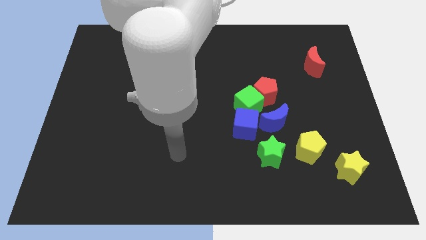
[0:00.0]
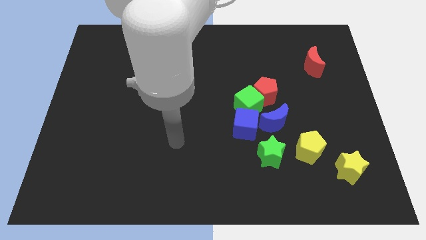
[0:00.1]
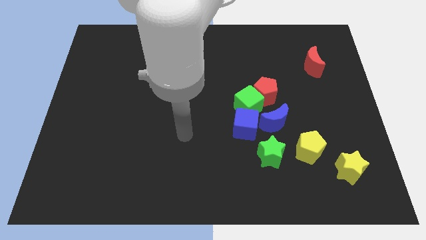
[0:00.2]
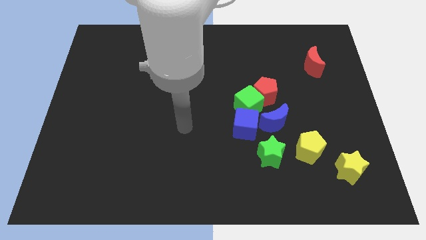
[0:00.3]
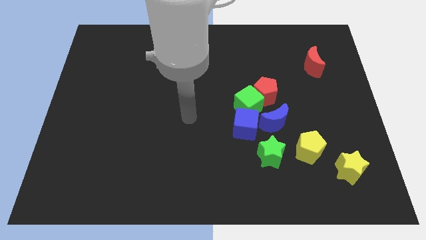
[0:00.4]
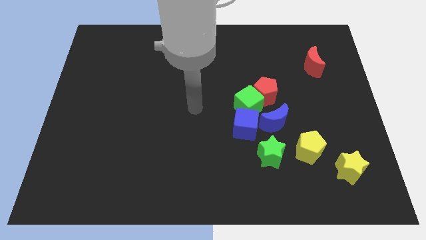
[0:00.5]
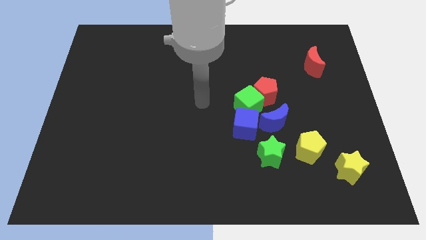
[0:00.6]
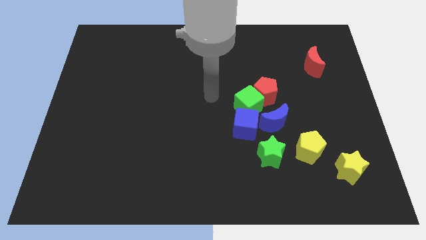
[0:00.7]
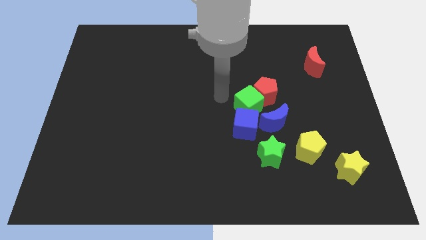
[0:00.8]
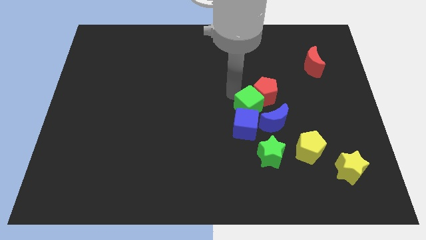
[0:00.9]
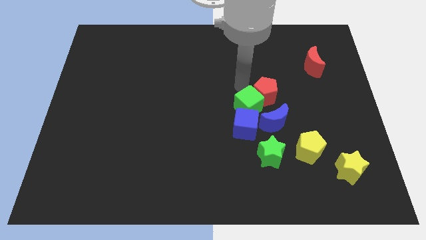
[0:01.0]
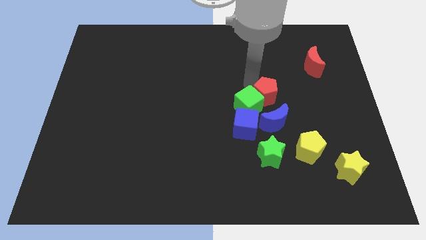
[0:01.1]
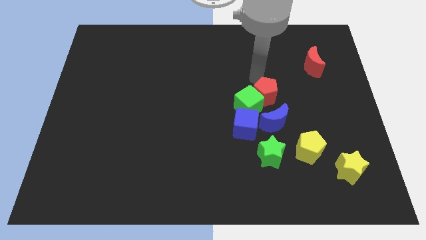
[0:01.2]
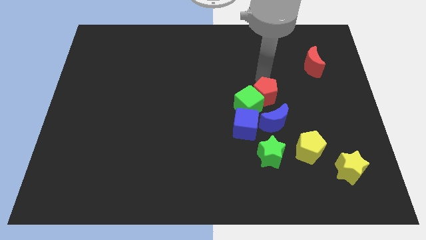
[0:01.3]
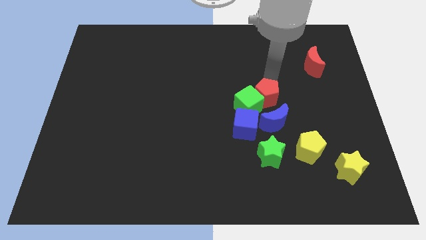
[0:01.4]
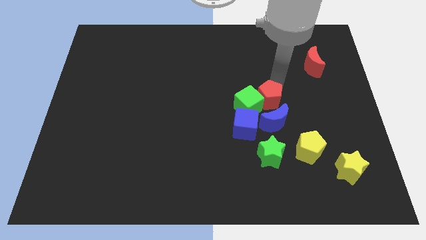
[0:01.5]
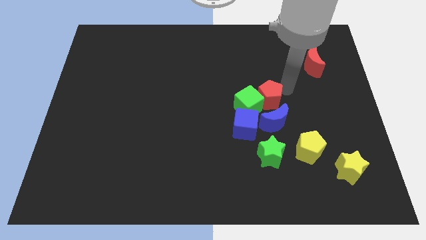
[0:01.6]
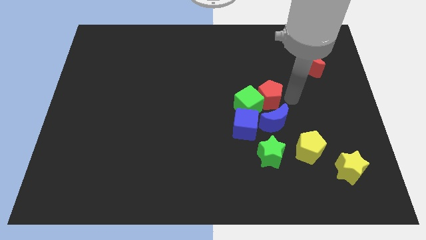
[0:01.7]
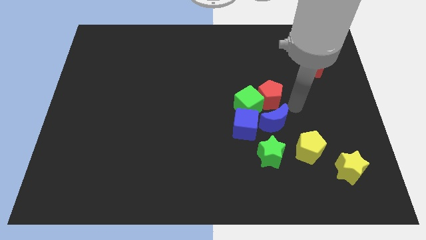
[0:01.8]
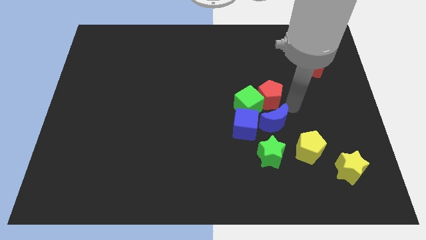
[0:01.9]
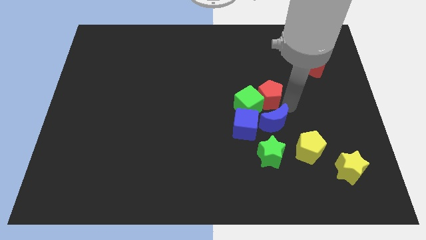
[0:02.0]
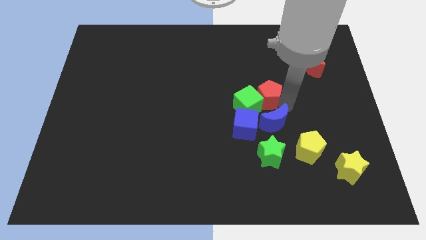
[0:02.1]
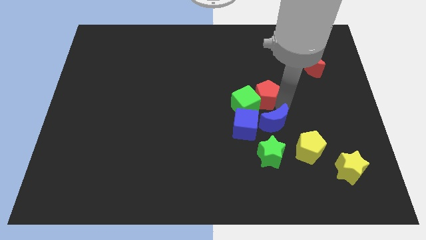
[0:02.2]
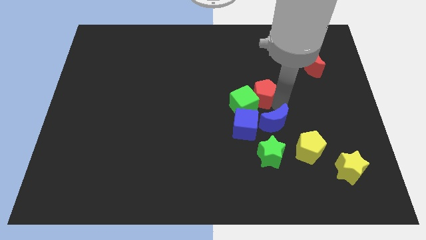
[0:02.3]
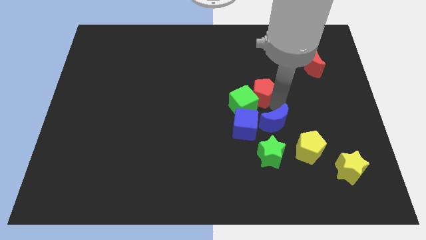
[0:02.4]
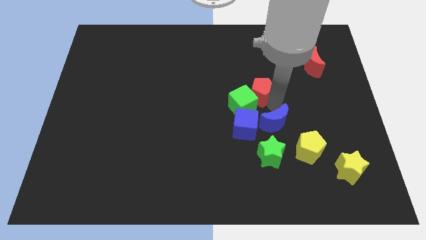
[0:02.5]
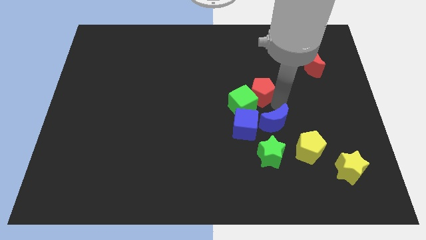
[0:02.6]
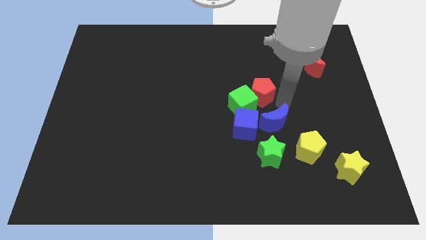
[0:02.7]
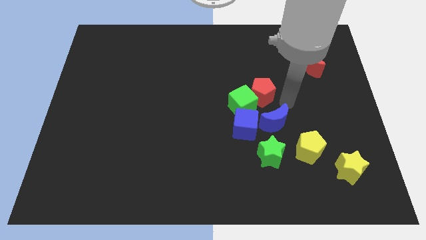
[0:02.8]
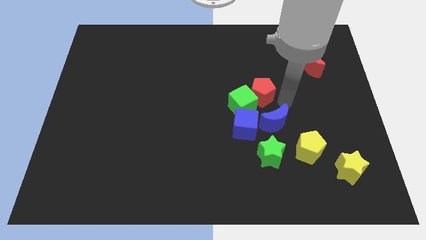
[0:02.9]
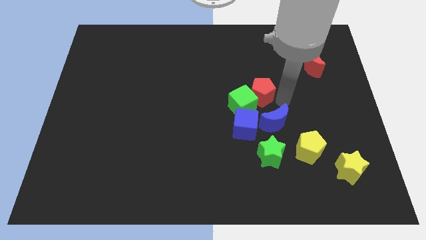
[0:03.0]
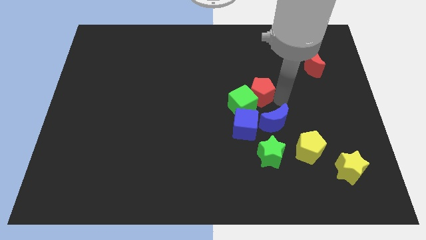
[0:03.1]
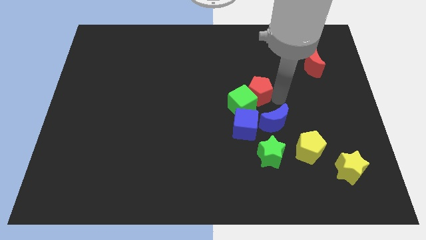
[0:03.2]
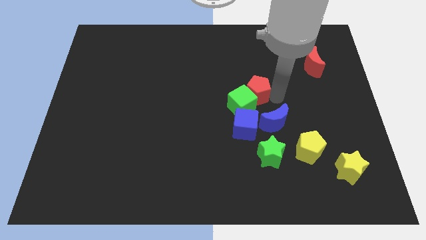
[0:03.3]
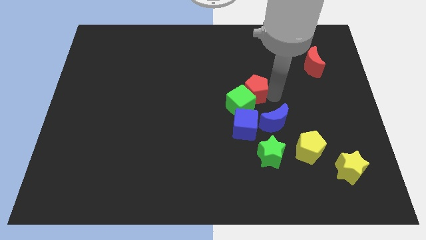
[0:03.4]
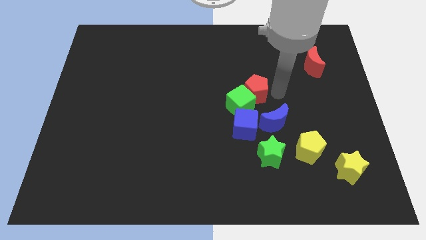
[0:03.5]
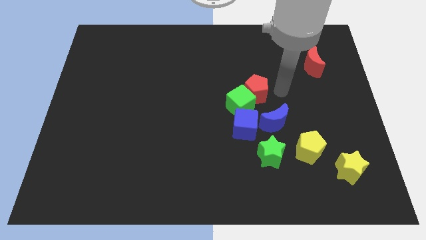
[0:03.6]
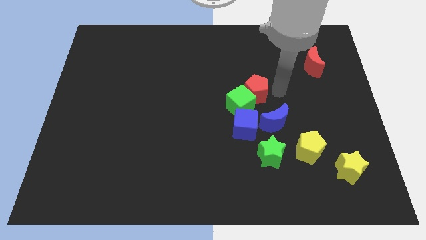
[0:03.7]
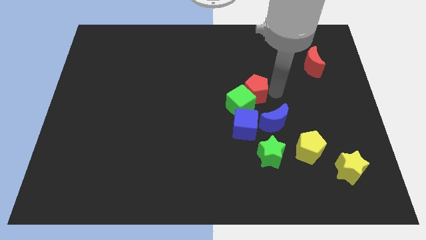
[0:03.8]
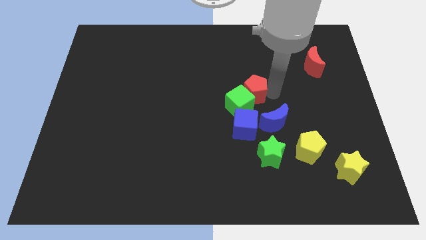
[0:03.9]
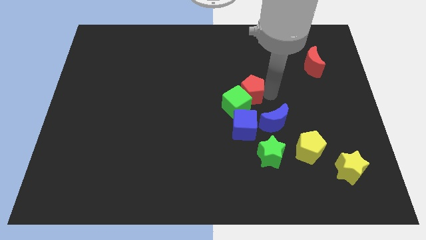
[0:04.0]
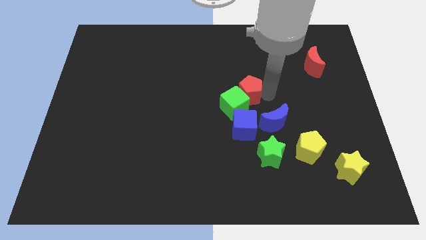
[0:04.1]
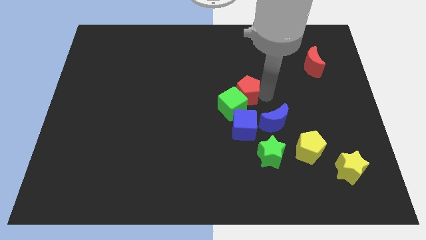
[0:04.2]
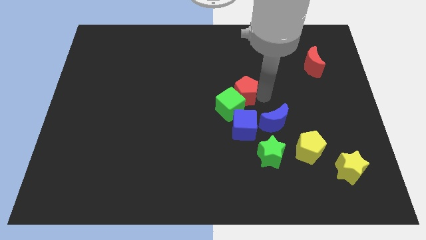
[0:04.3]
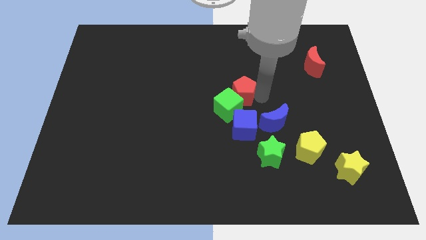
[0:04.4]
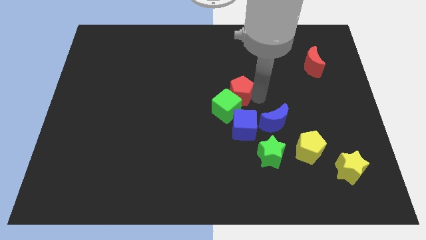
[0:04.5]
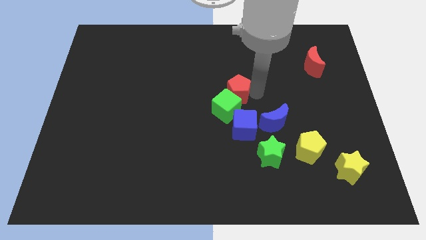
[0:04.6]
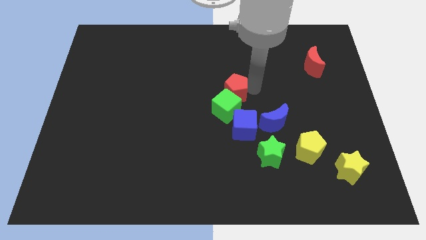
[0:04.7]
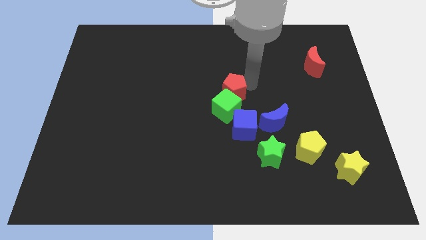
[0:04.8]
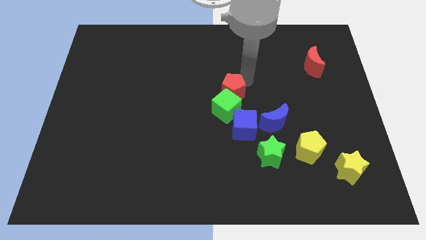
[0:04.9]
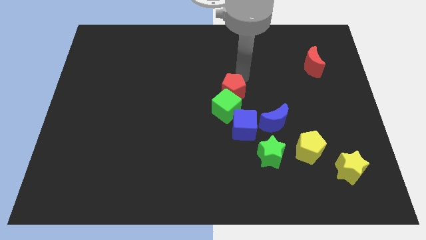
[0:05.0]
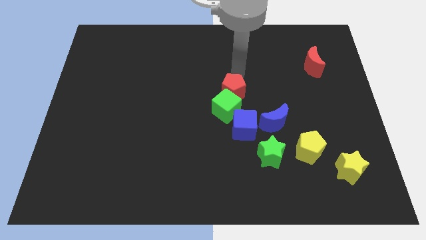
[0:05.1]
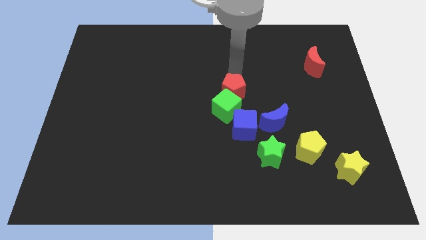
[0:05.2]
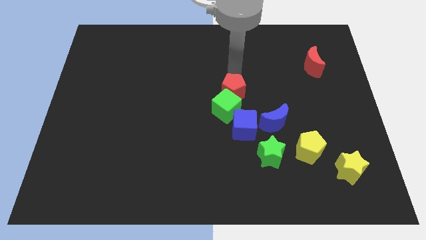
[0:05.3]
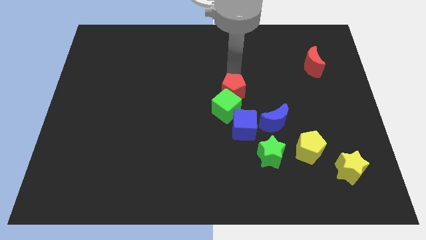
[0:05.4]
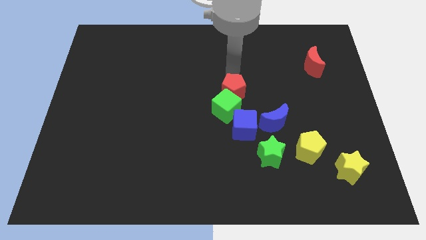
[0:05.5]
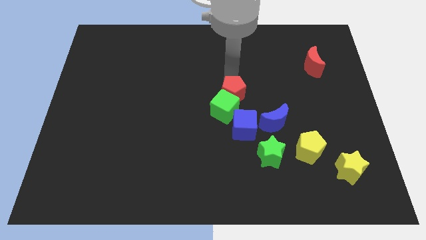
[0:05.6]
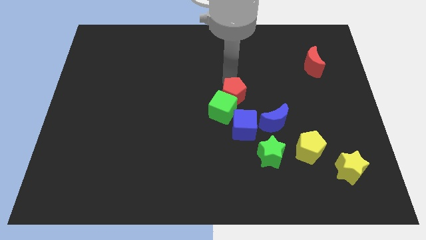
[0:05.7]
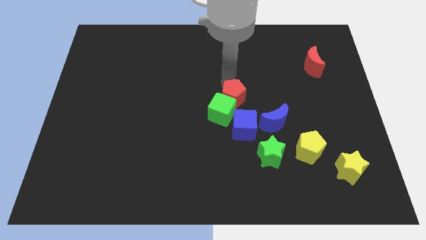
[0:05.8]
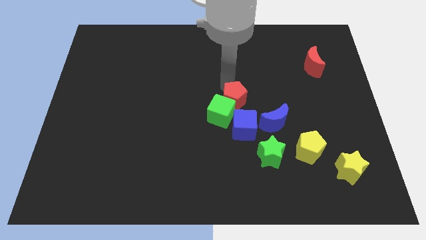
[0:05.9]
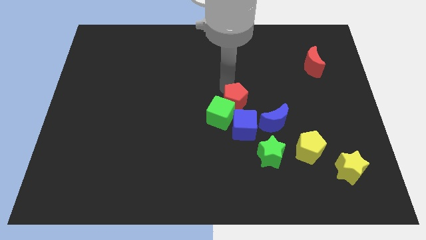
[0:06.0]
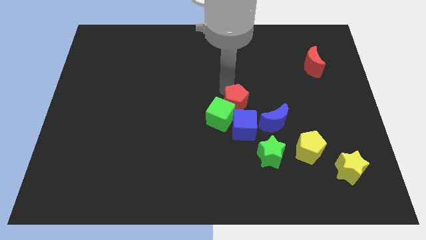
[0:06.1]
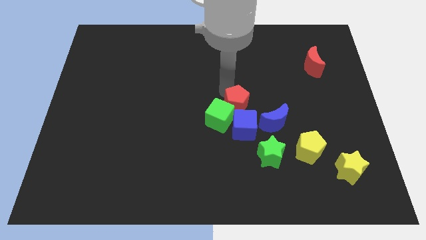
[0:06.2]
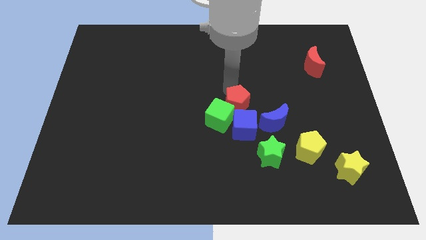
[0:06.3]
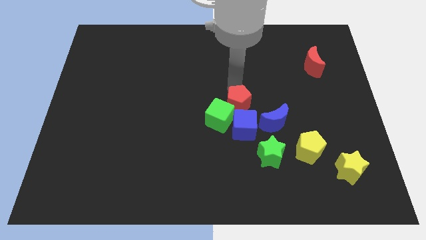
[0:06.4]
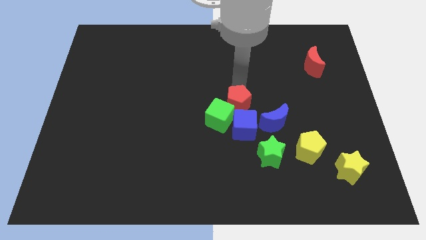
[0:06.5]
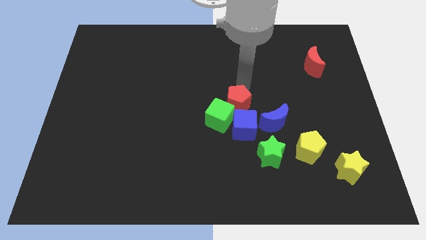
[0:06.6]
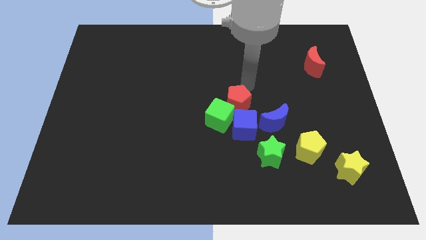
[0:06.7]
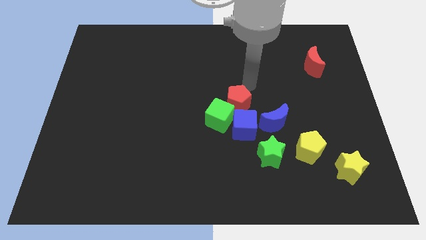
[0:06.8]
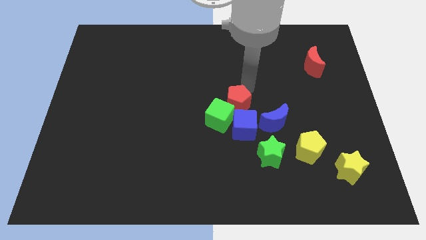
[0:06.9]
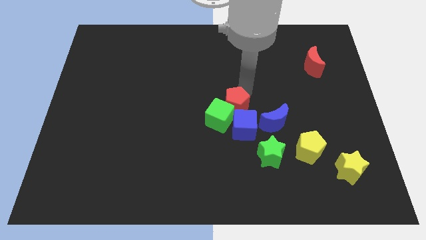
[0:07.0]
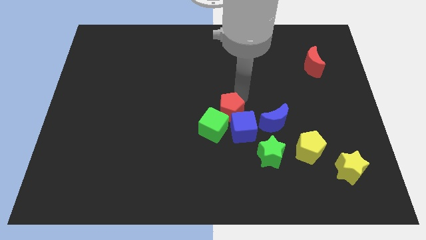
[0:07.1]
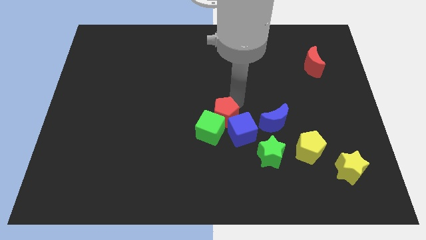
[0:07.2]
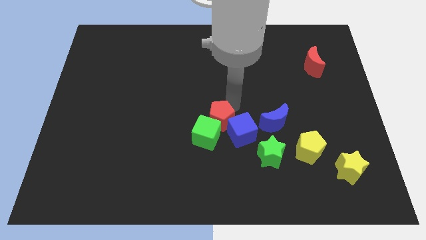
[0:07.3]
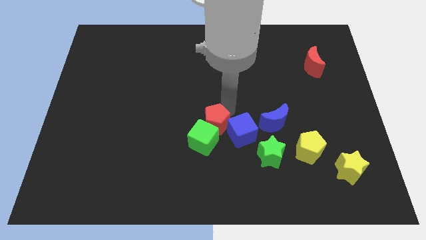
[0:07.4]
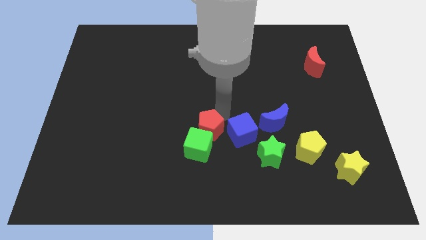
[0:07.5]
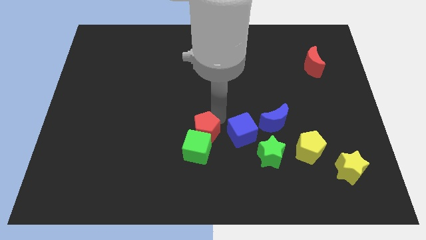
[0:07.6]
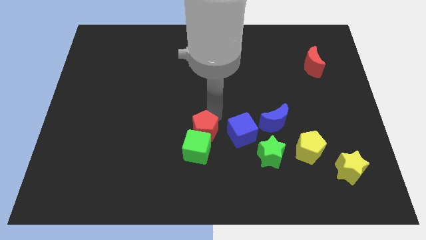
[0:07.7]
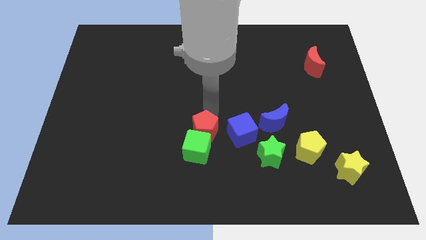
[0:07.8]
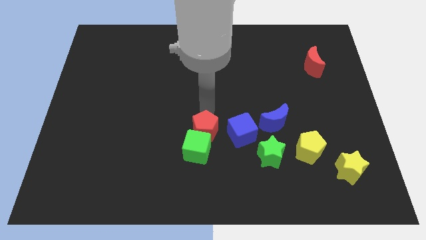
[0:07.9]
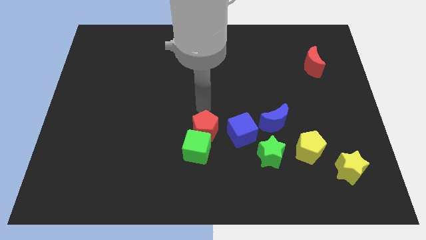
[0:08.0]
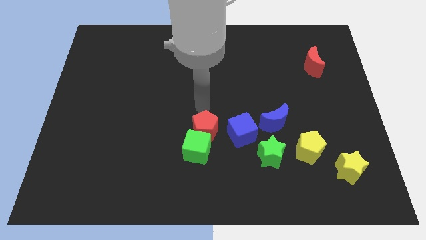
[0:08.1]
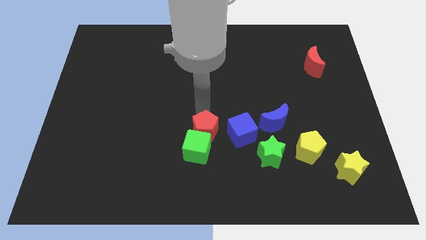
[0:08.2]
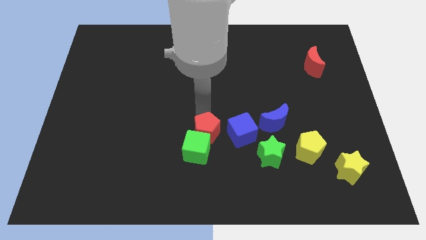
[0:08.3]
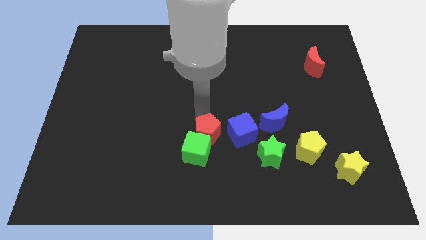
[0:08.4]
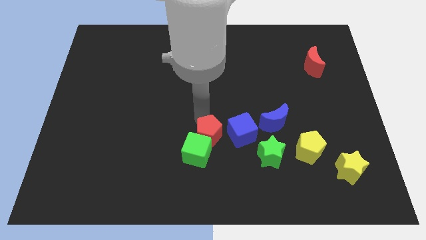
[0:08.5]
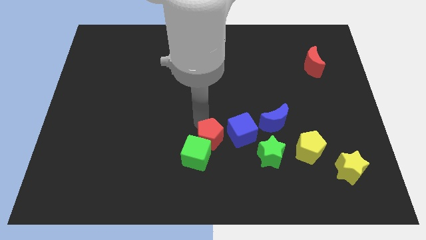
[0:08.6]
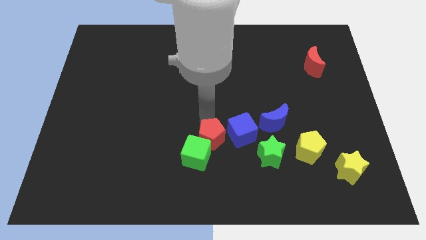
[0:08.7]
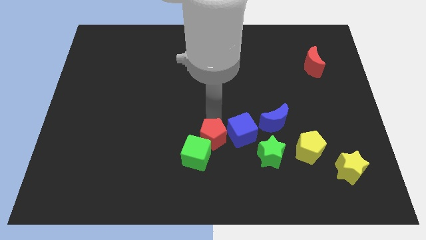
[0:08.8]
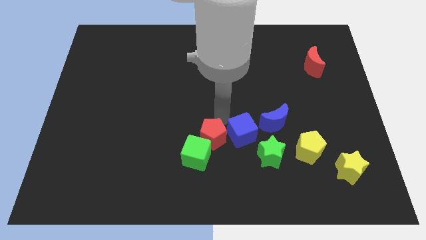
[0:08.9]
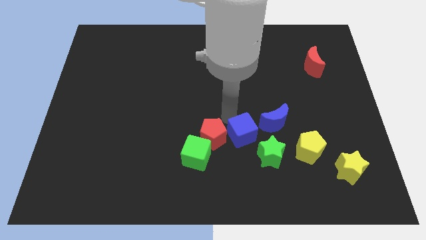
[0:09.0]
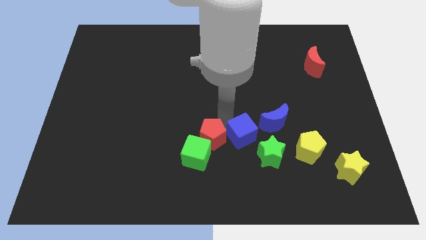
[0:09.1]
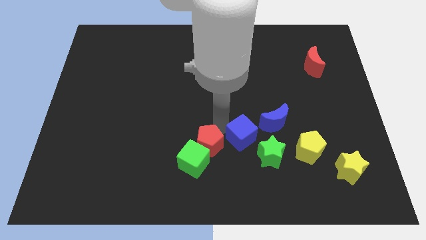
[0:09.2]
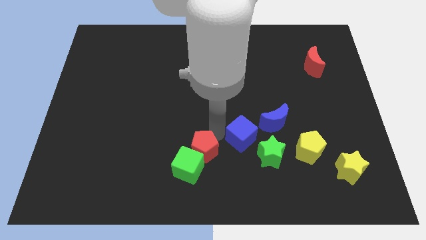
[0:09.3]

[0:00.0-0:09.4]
move the red pentagon downwards and left diagonally
